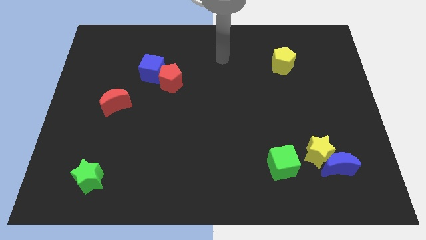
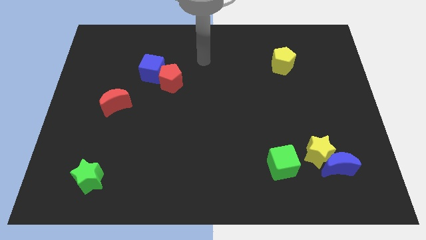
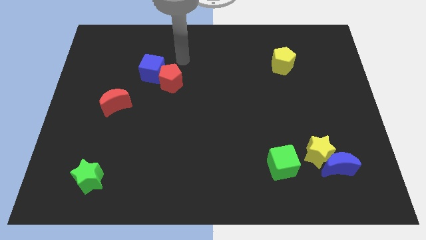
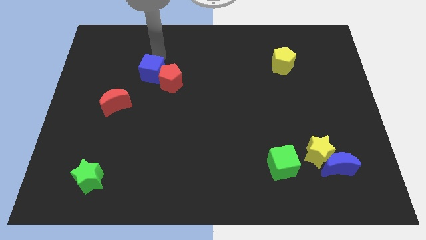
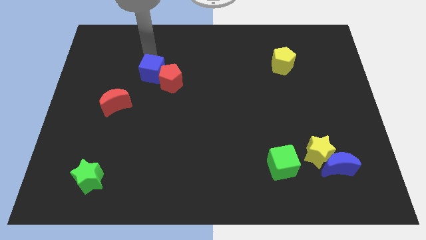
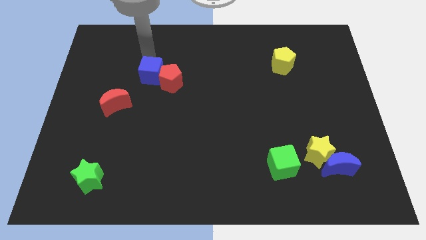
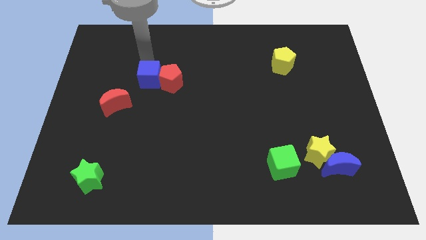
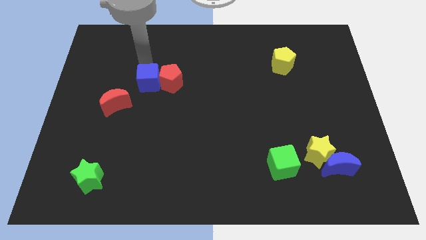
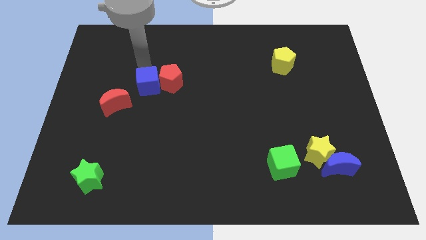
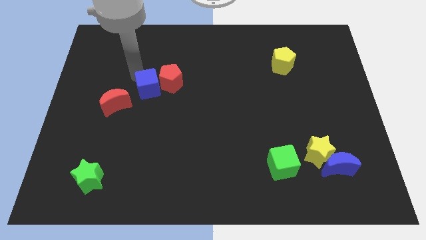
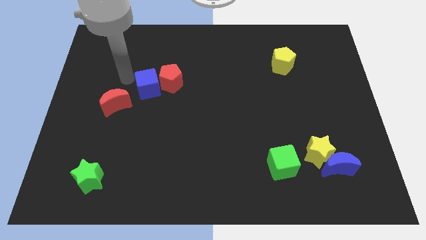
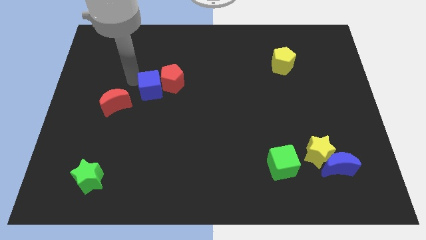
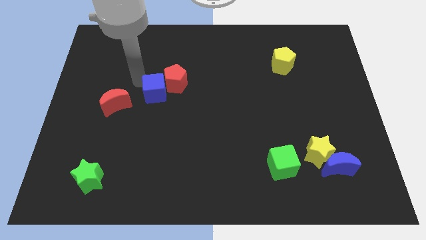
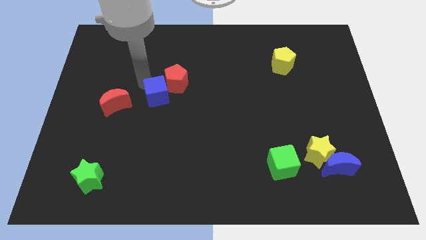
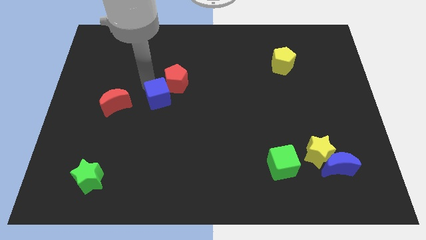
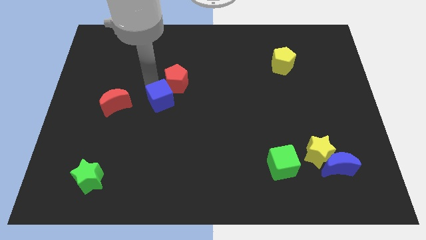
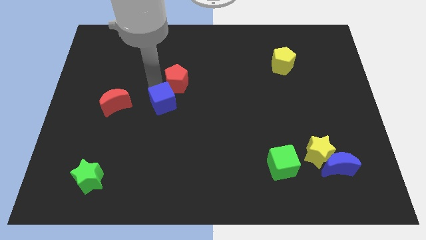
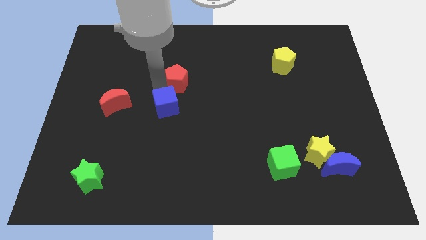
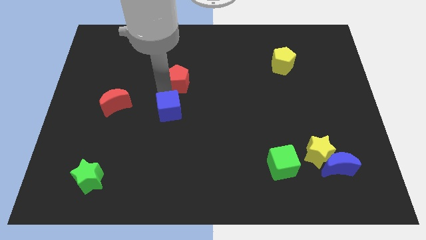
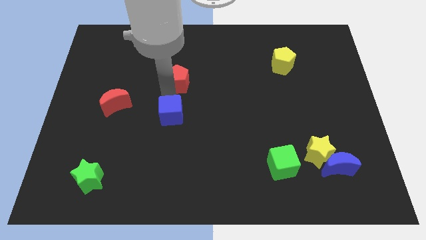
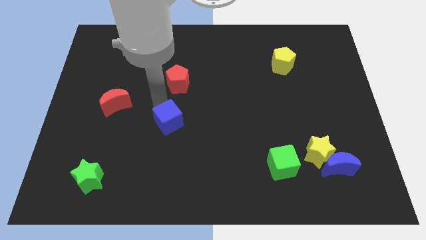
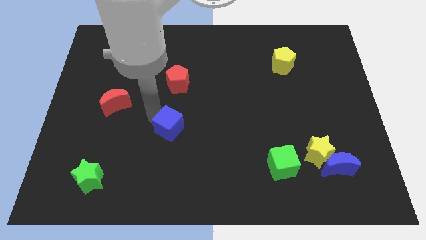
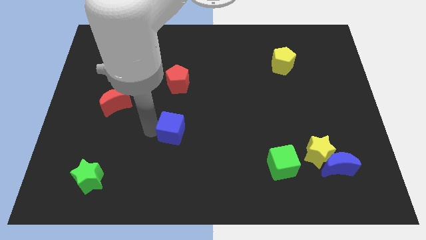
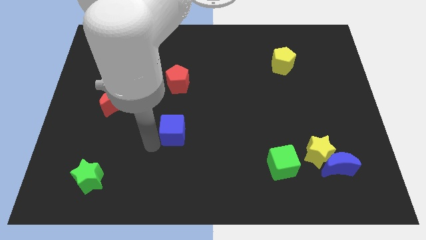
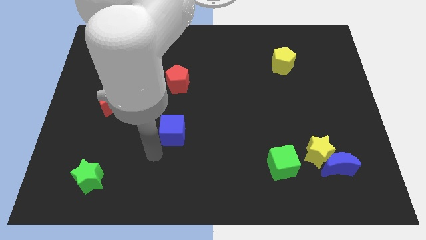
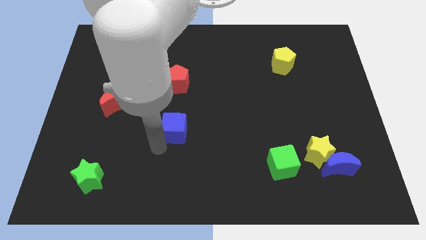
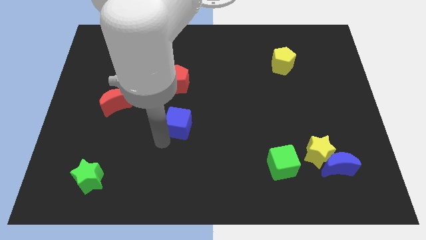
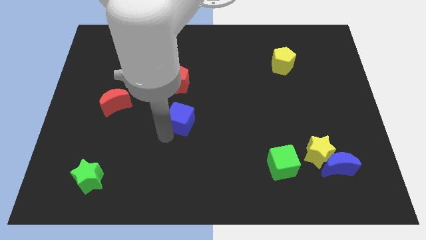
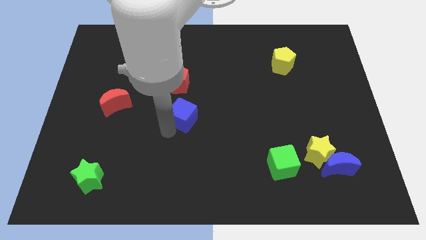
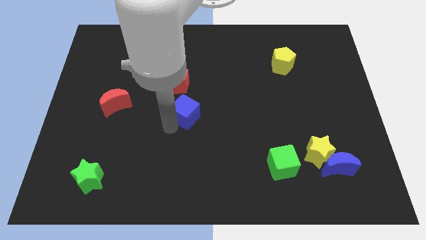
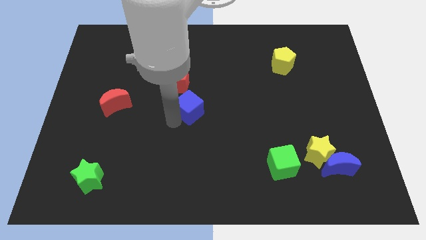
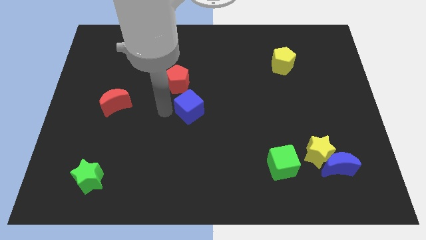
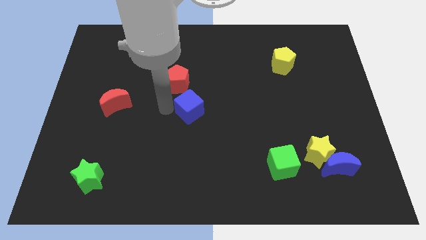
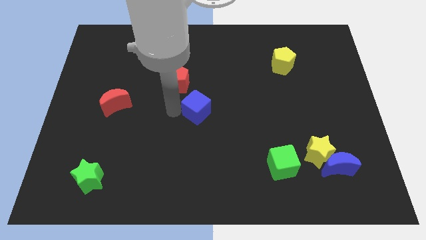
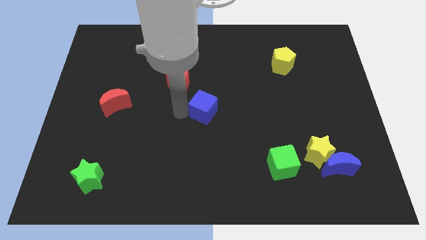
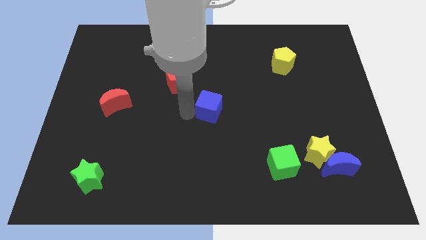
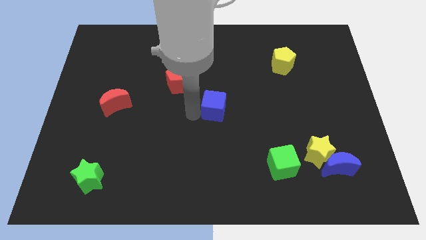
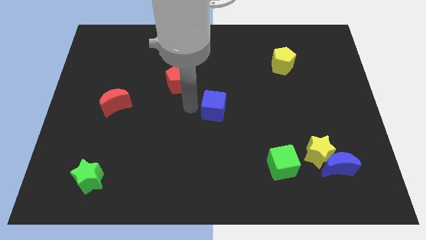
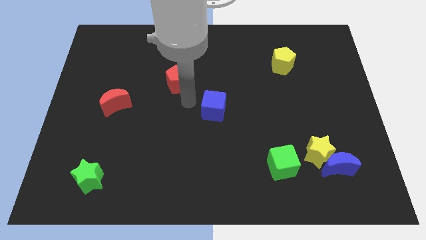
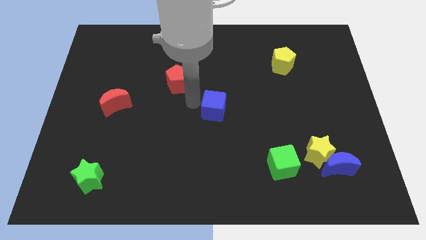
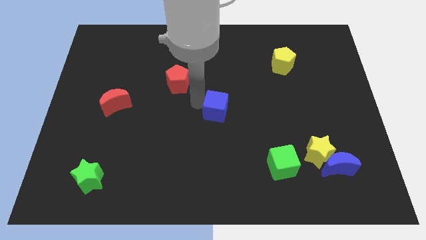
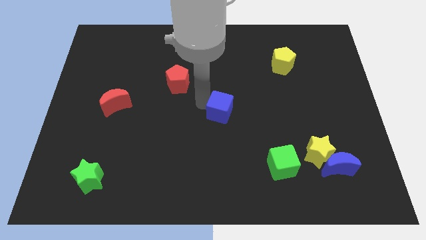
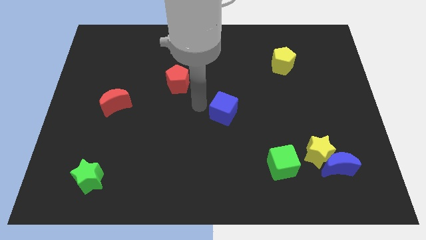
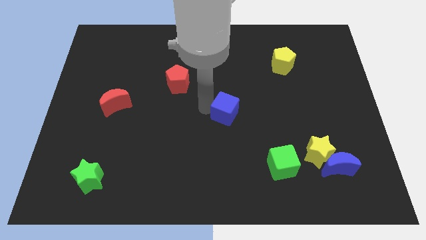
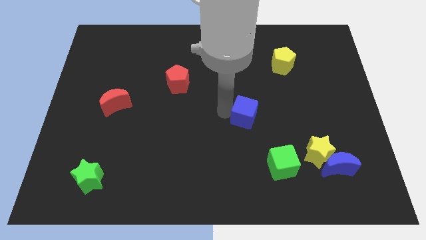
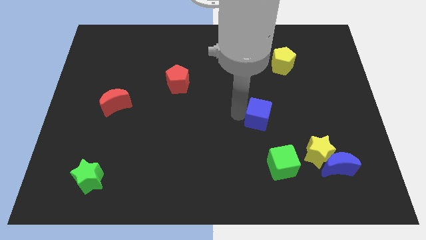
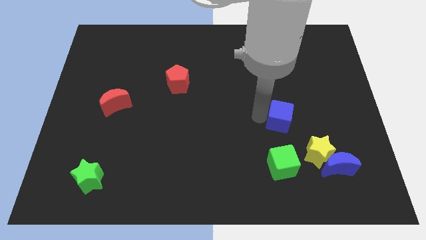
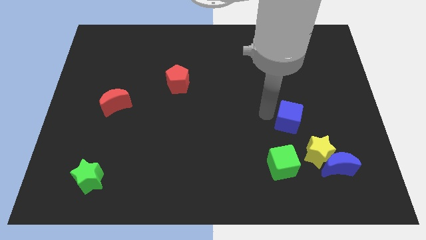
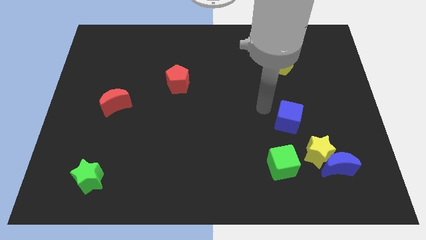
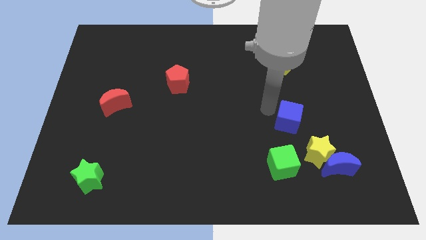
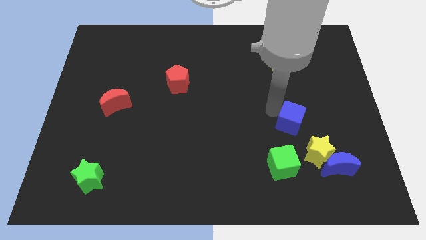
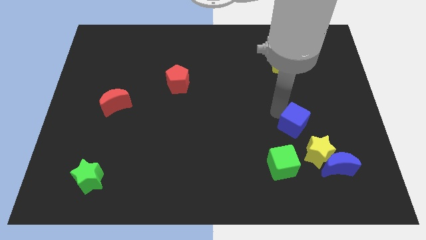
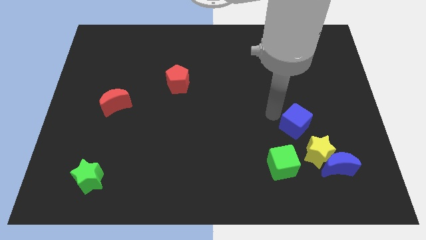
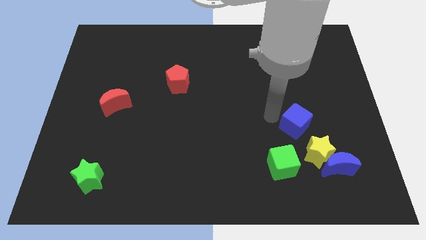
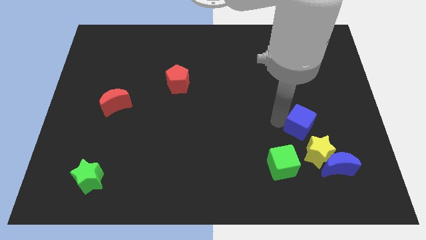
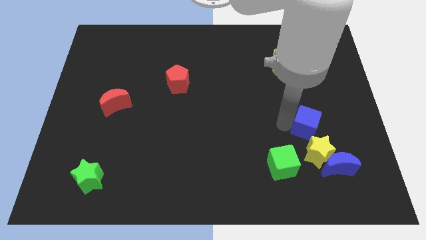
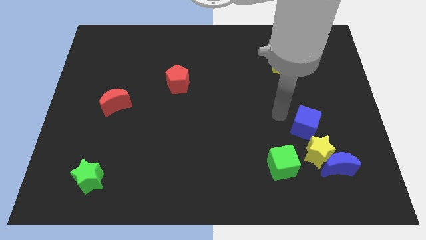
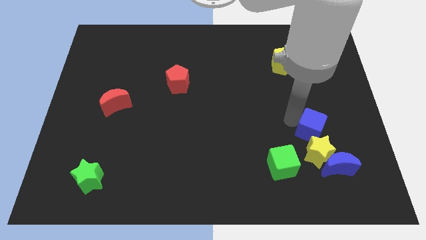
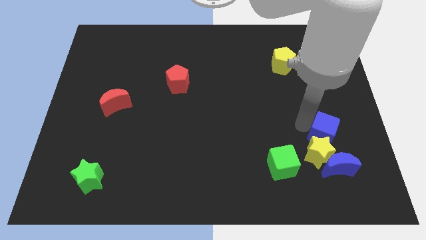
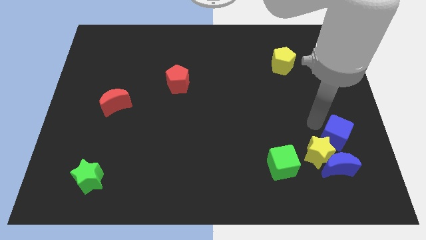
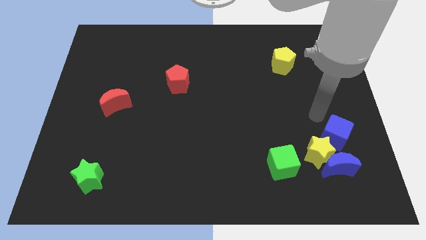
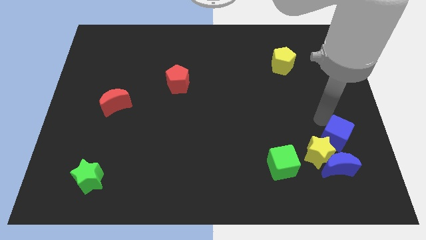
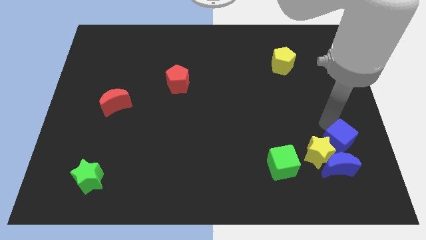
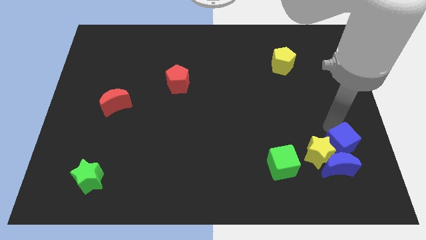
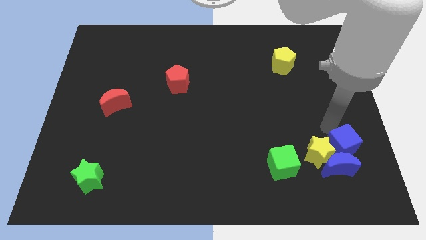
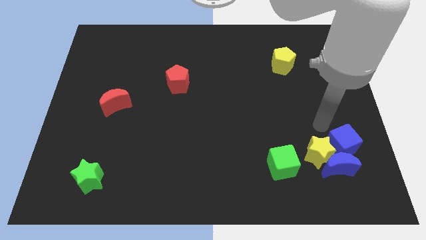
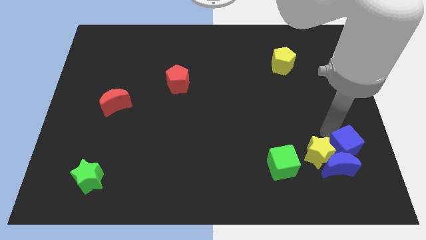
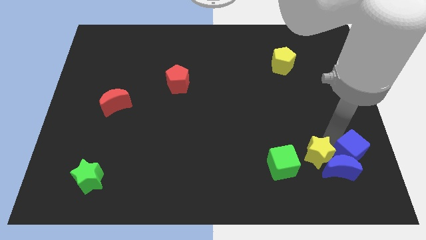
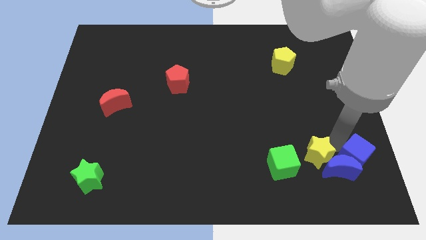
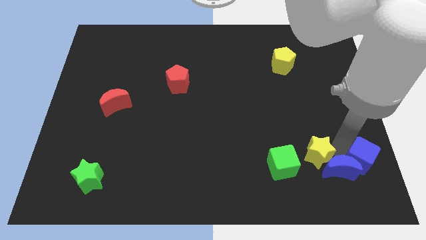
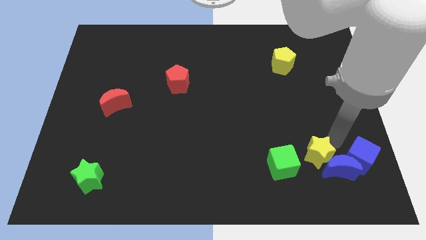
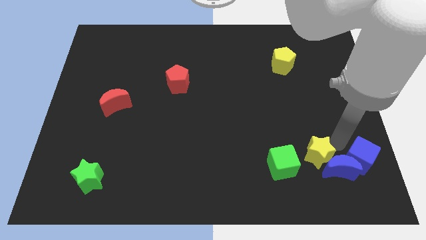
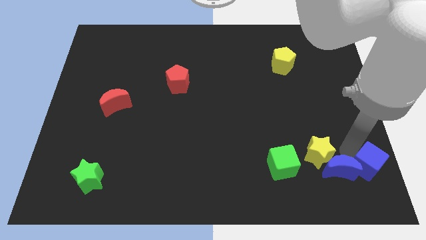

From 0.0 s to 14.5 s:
put the blue cube to the lower right corner

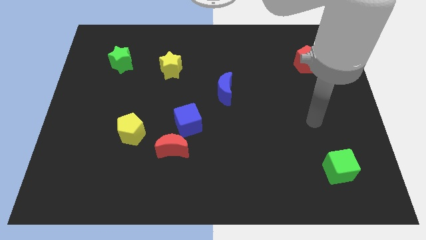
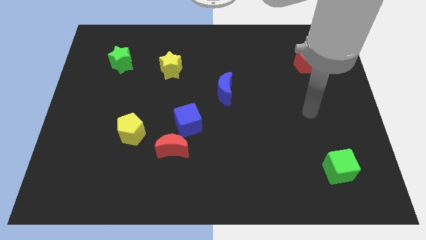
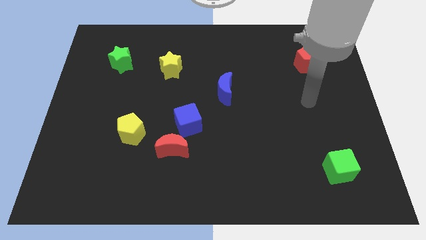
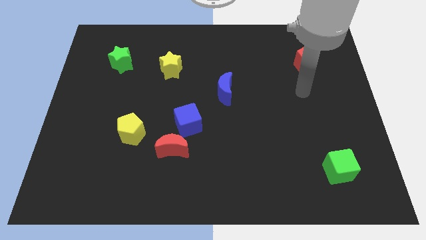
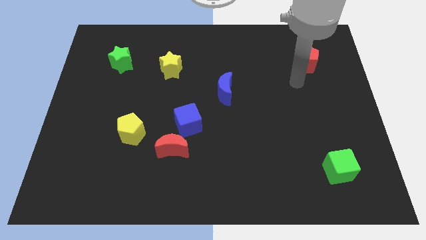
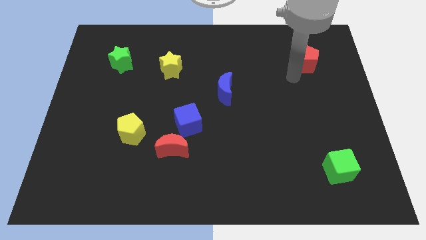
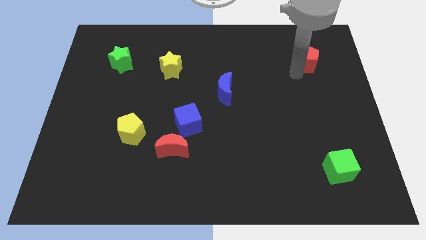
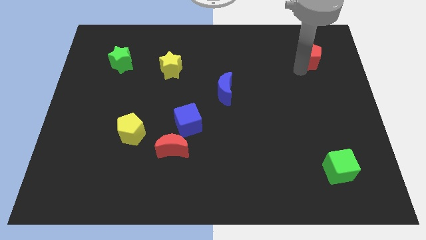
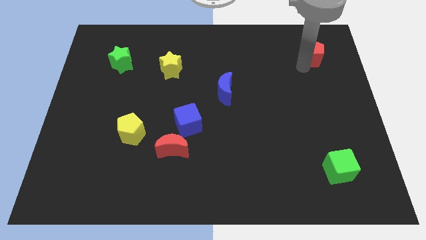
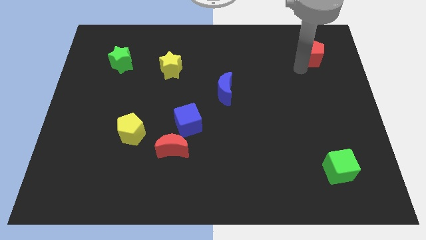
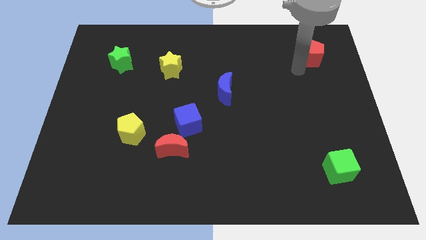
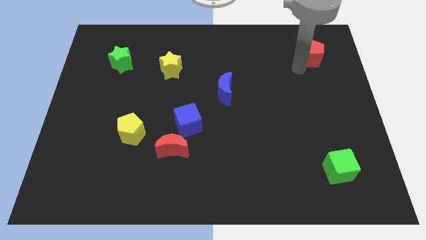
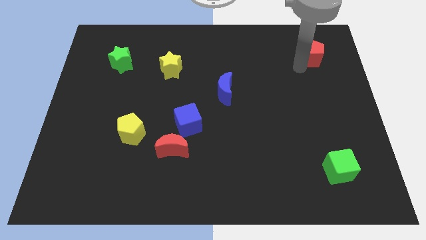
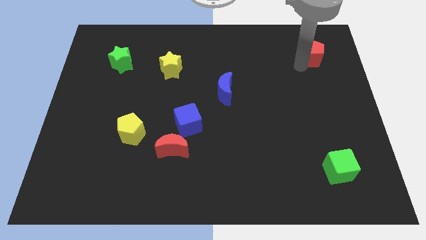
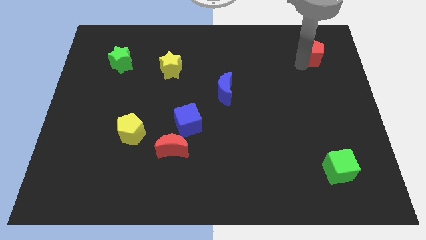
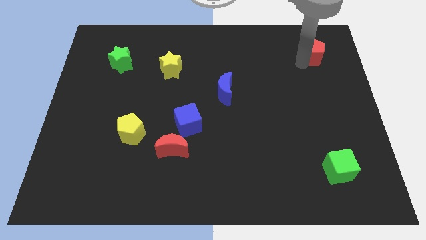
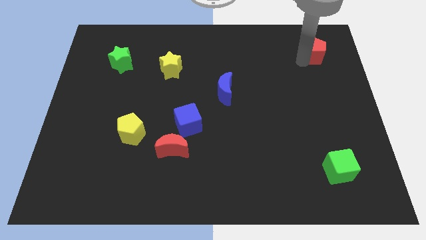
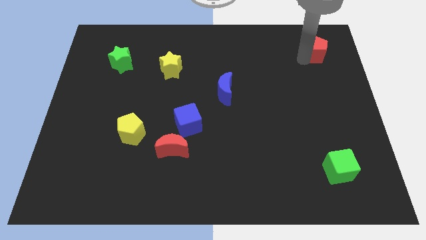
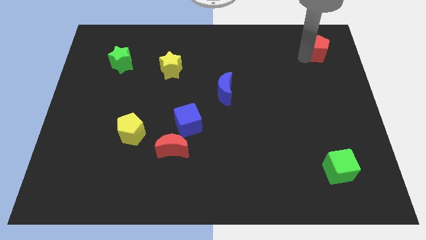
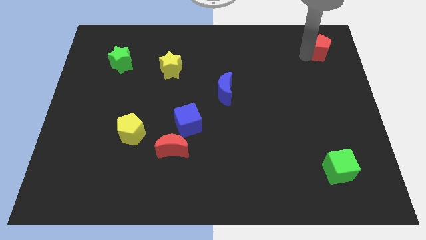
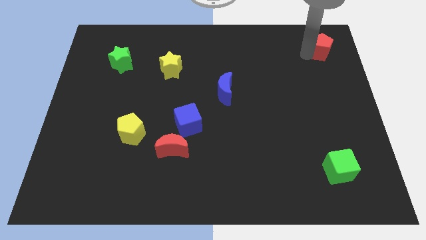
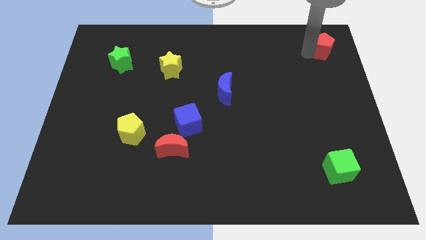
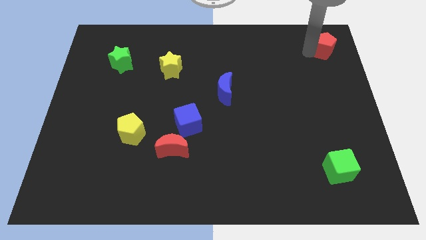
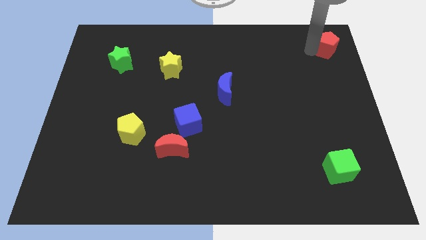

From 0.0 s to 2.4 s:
slide the red pentagon to the top right
